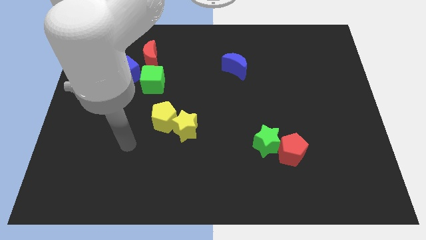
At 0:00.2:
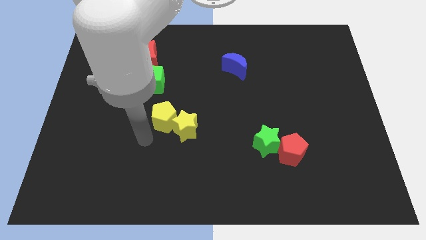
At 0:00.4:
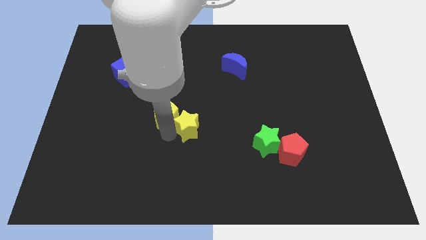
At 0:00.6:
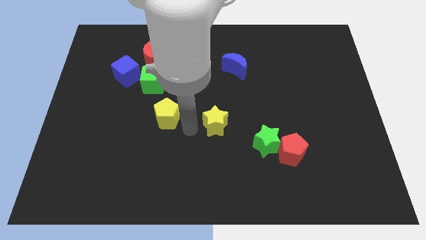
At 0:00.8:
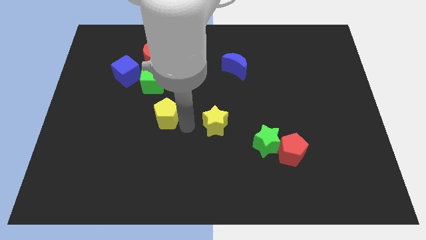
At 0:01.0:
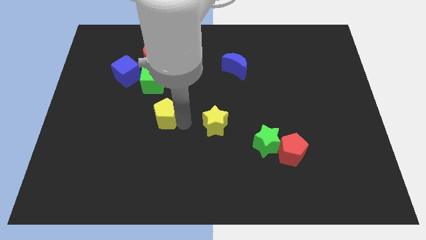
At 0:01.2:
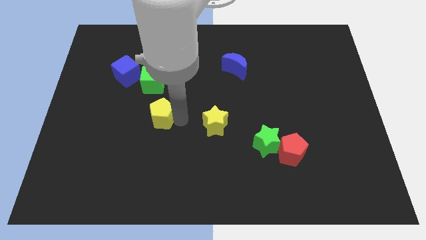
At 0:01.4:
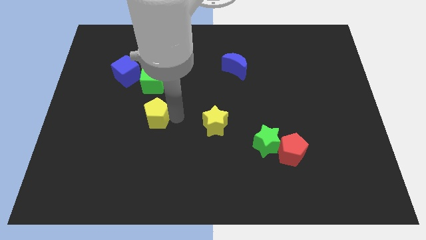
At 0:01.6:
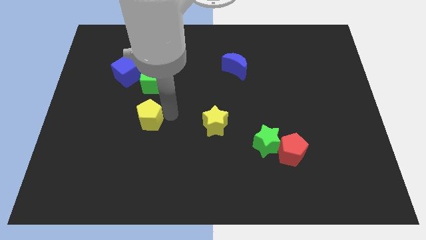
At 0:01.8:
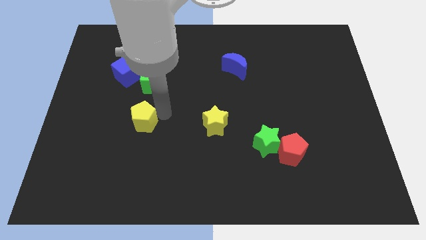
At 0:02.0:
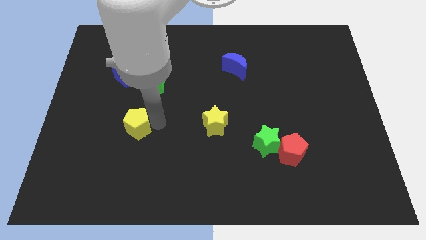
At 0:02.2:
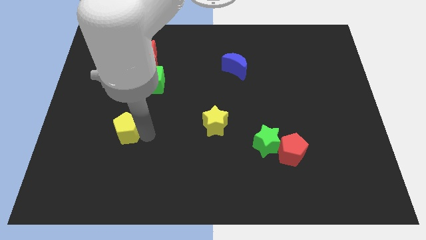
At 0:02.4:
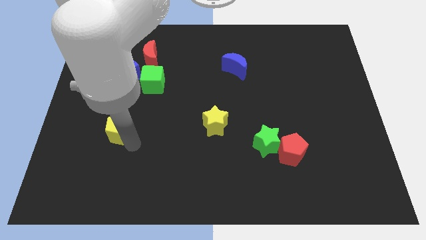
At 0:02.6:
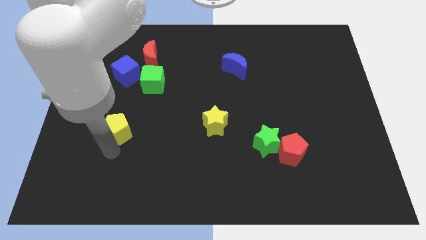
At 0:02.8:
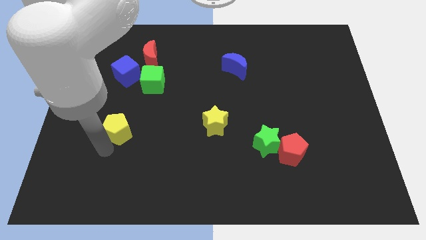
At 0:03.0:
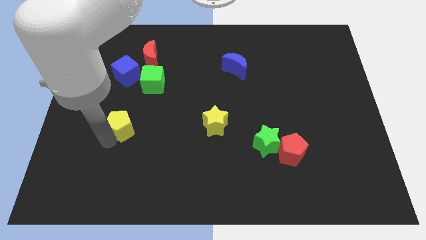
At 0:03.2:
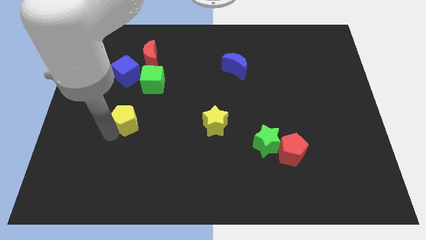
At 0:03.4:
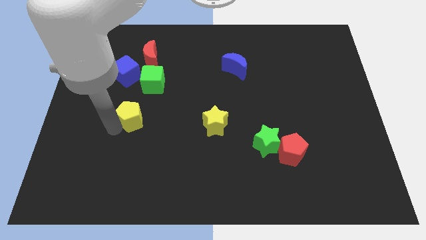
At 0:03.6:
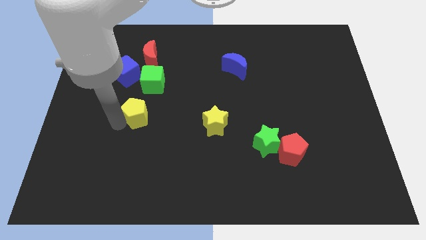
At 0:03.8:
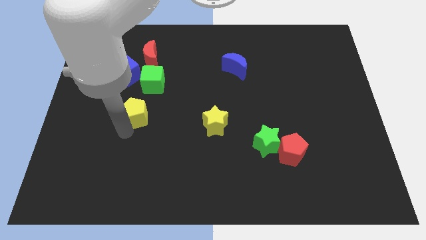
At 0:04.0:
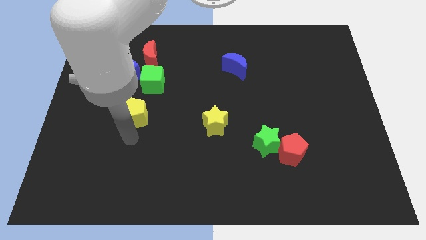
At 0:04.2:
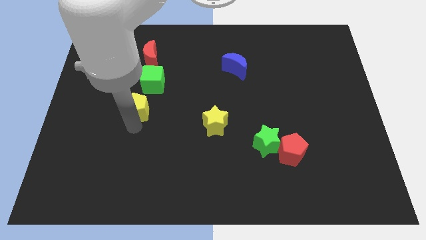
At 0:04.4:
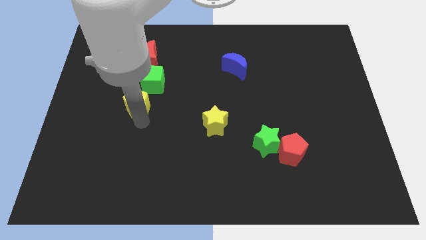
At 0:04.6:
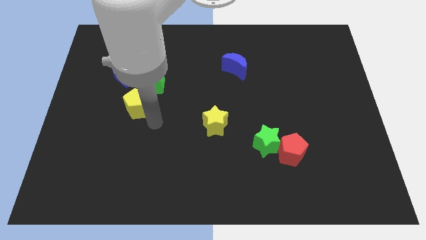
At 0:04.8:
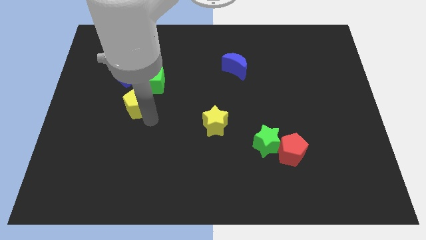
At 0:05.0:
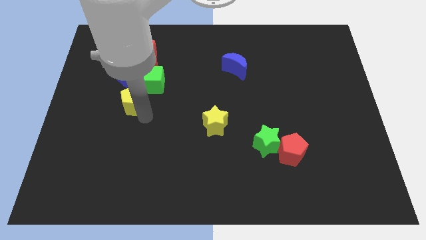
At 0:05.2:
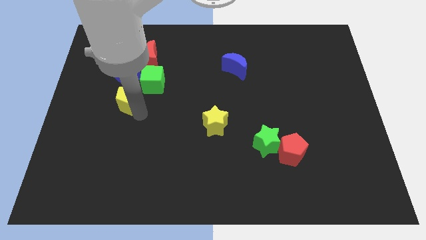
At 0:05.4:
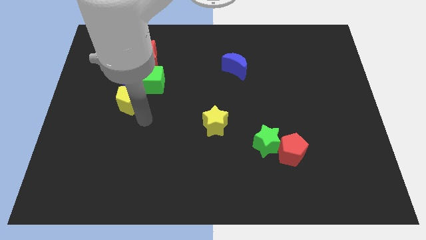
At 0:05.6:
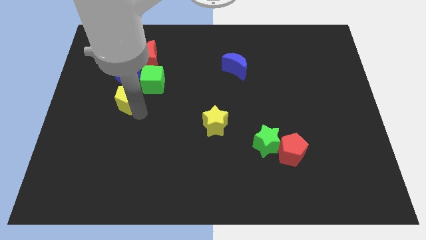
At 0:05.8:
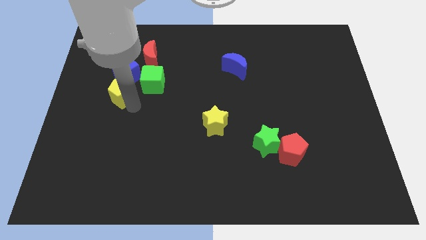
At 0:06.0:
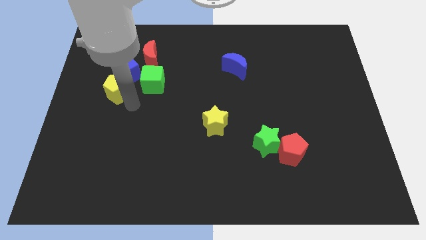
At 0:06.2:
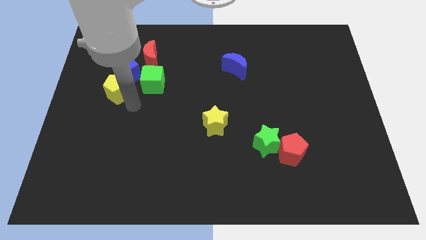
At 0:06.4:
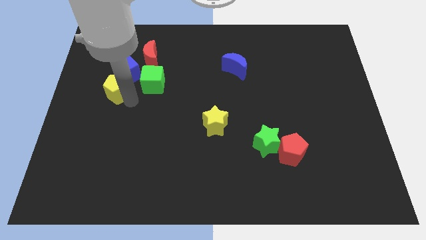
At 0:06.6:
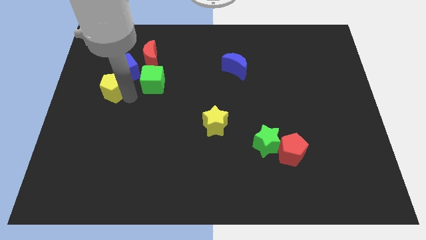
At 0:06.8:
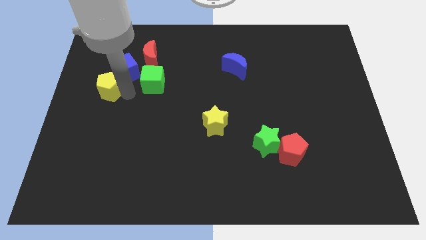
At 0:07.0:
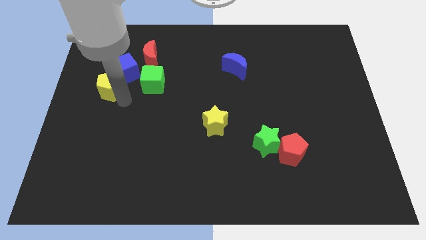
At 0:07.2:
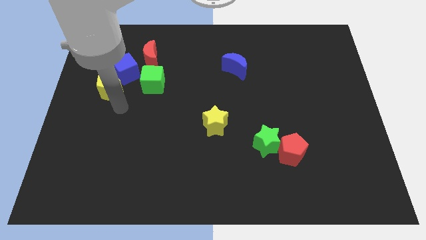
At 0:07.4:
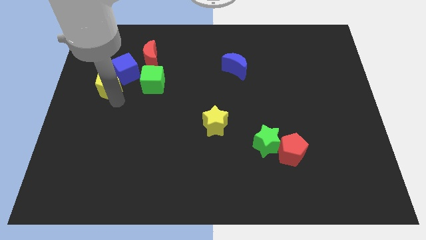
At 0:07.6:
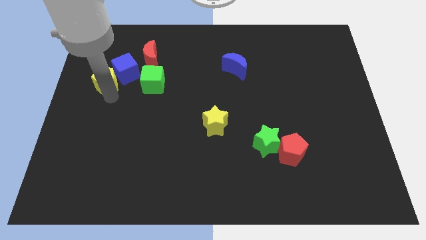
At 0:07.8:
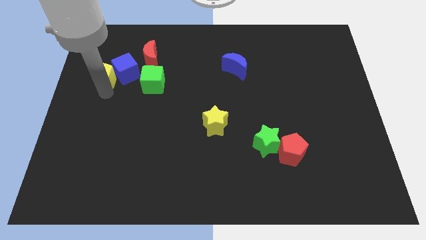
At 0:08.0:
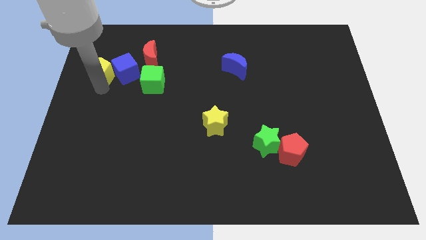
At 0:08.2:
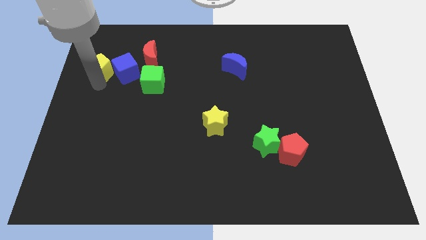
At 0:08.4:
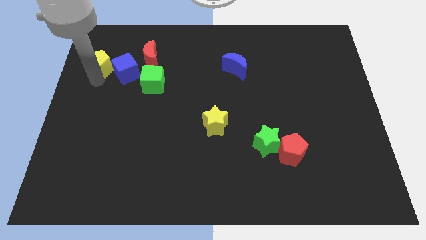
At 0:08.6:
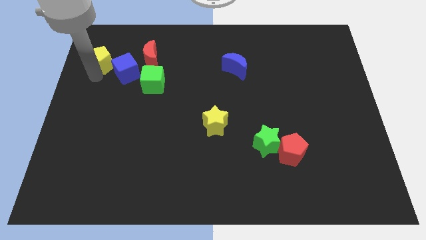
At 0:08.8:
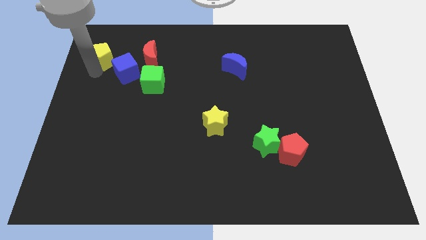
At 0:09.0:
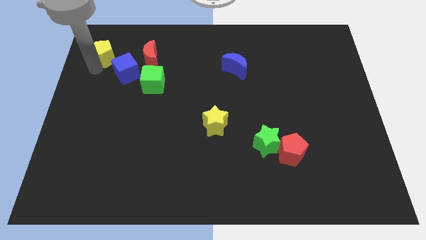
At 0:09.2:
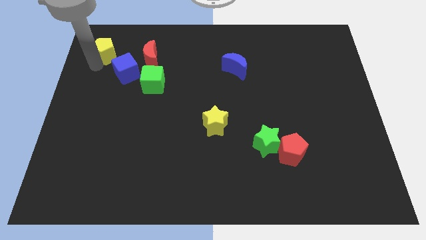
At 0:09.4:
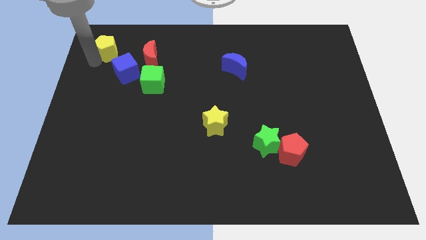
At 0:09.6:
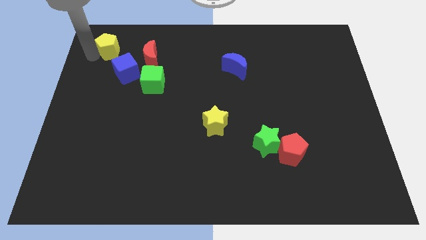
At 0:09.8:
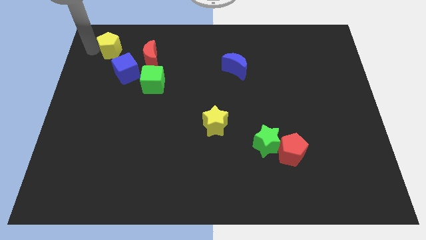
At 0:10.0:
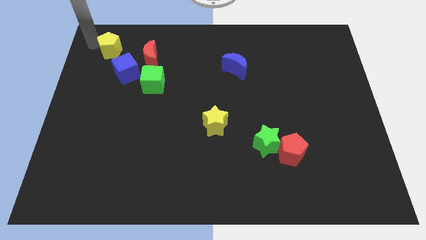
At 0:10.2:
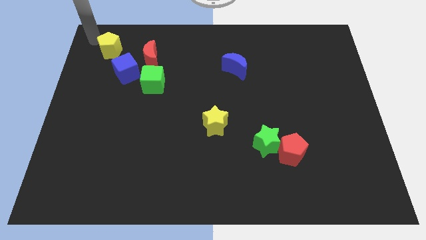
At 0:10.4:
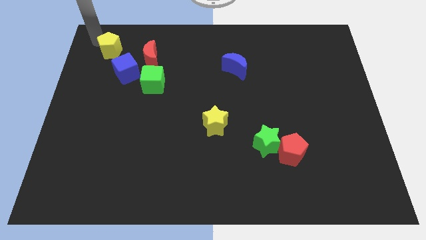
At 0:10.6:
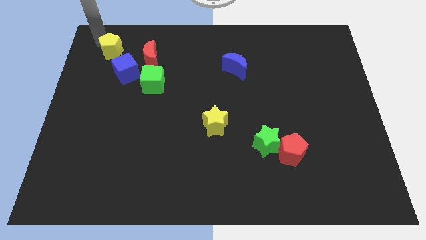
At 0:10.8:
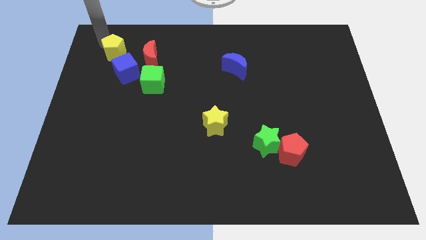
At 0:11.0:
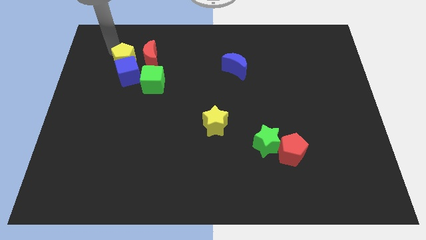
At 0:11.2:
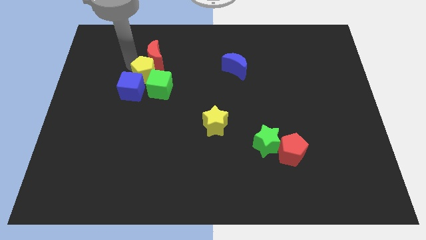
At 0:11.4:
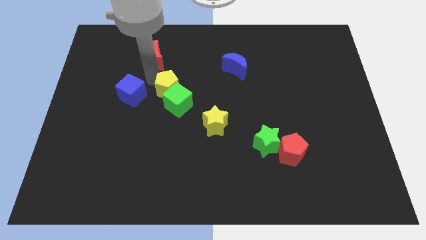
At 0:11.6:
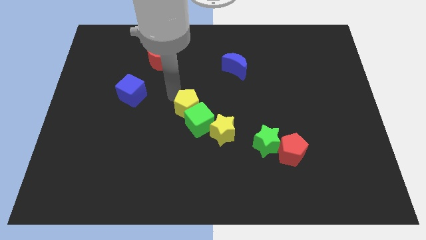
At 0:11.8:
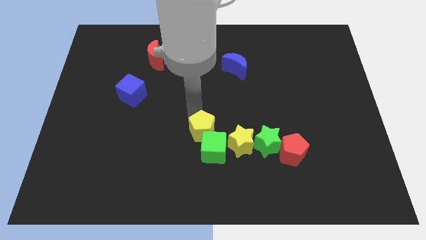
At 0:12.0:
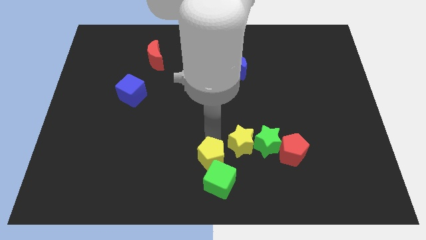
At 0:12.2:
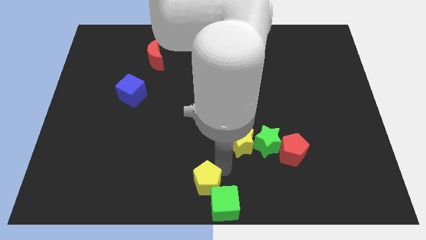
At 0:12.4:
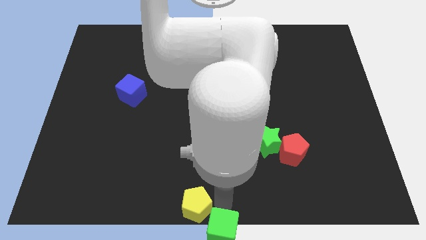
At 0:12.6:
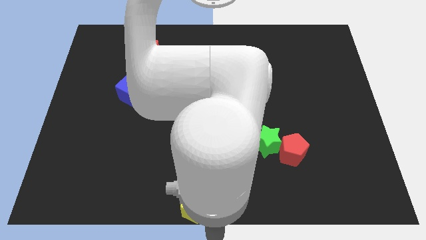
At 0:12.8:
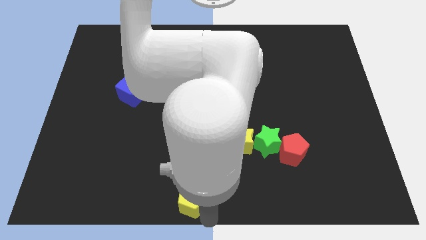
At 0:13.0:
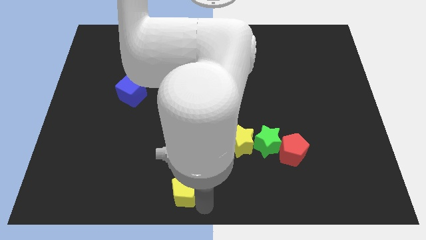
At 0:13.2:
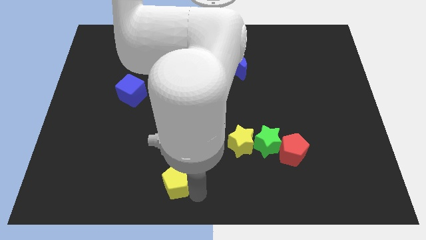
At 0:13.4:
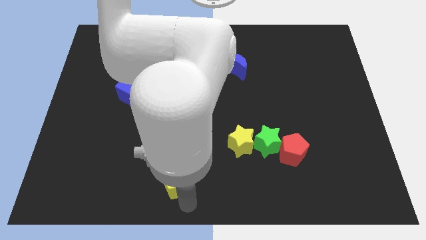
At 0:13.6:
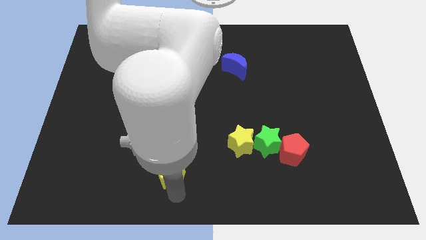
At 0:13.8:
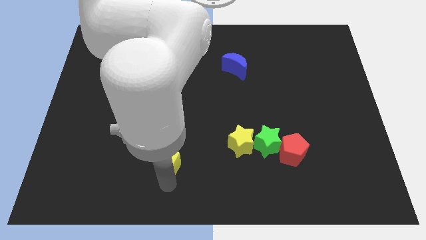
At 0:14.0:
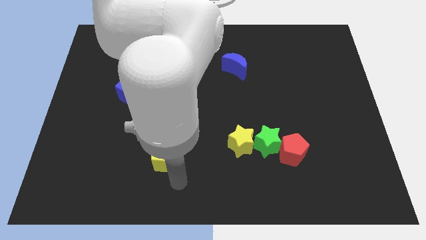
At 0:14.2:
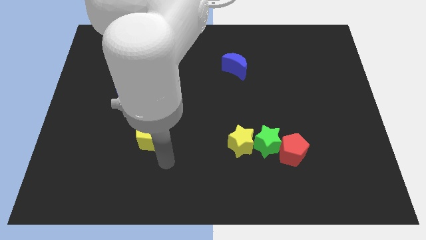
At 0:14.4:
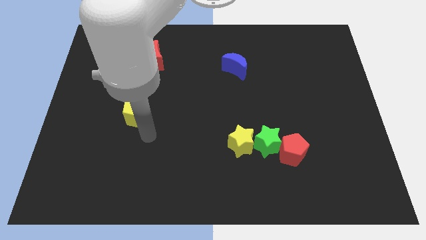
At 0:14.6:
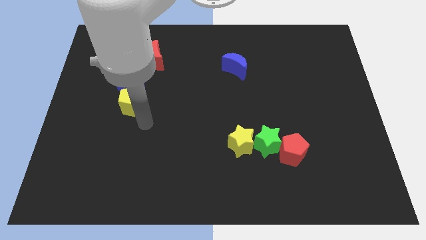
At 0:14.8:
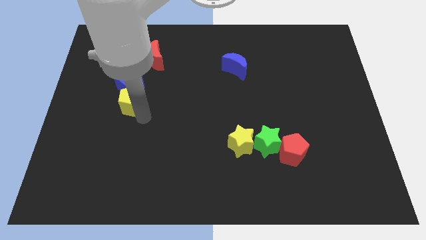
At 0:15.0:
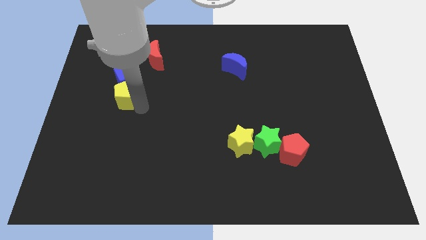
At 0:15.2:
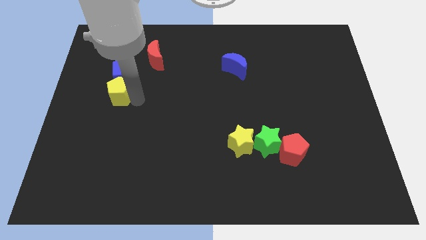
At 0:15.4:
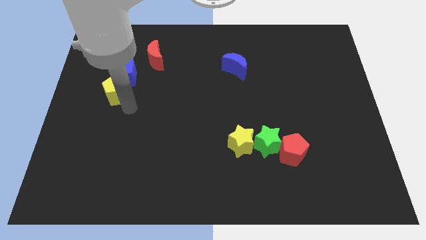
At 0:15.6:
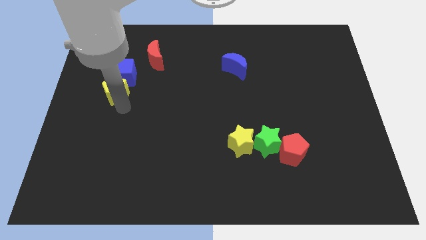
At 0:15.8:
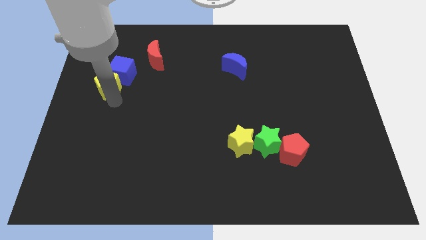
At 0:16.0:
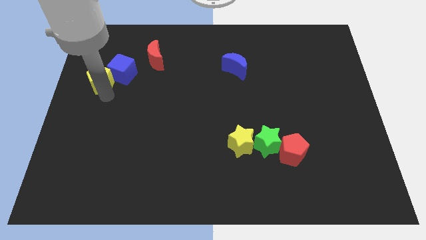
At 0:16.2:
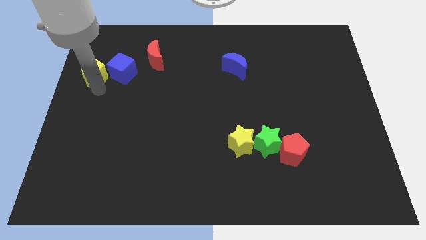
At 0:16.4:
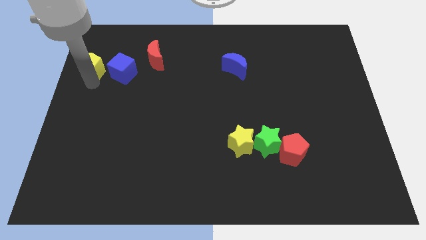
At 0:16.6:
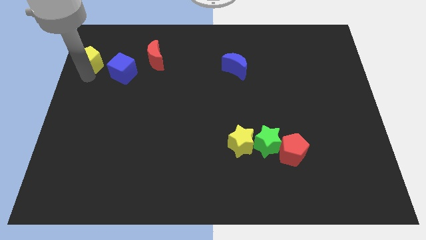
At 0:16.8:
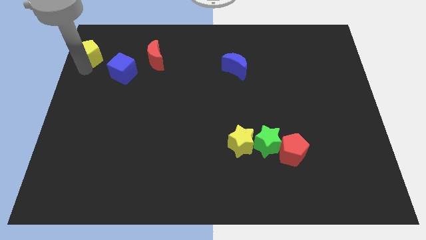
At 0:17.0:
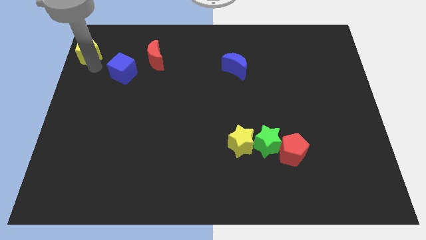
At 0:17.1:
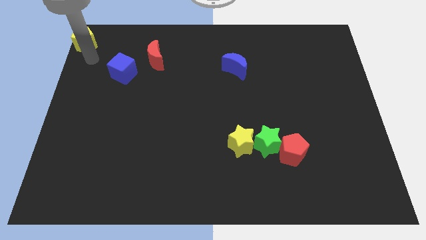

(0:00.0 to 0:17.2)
move the yellow pentagon to the top left of the board
